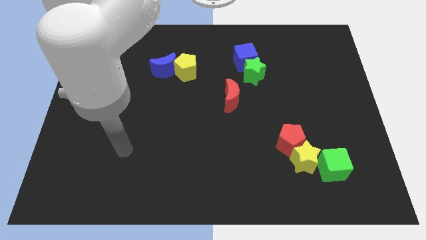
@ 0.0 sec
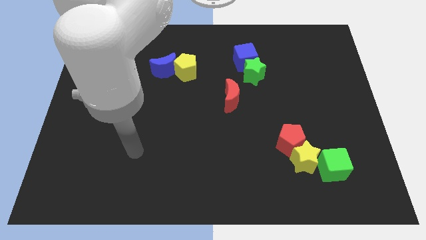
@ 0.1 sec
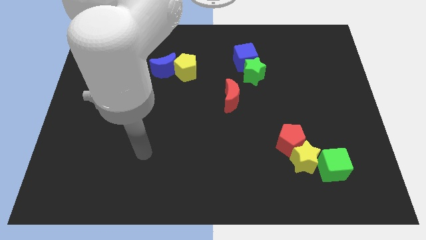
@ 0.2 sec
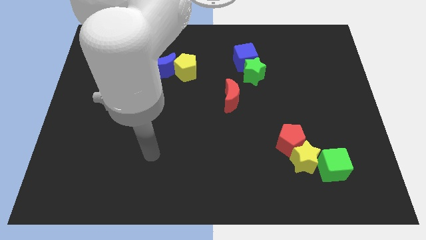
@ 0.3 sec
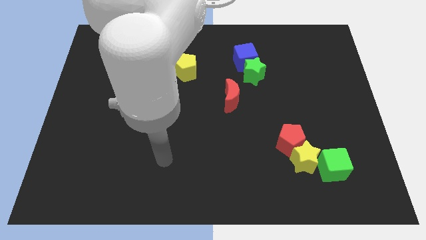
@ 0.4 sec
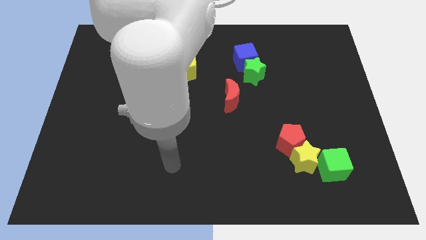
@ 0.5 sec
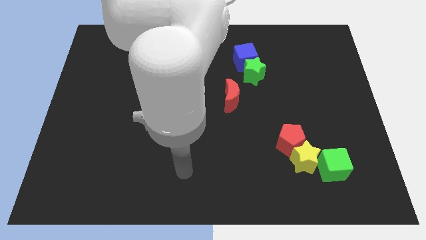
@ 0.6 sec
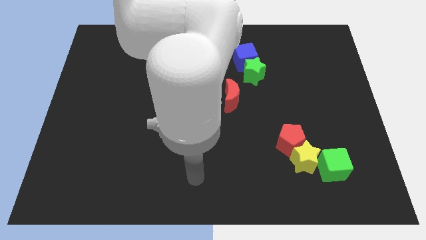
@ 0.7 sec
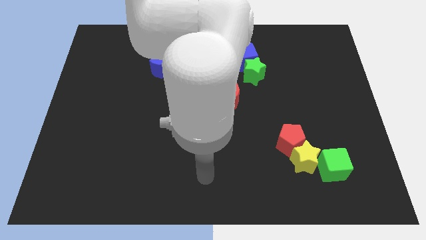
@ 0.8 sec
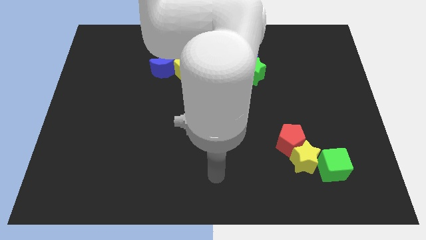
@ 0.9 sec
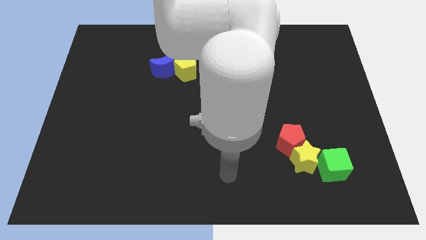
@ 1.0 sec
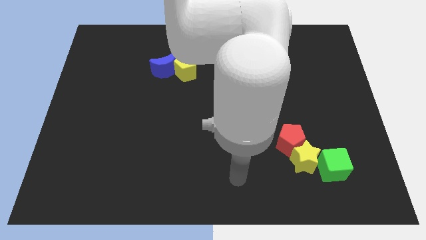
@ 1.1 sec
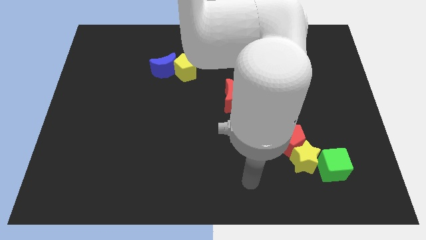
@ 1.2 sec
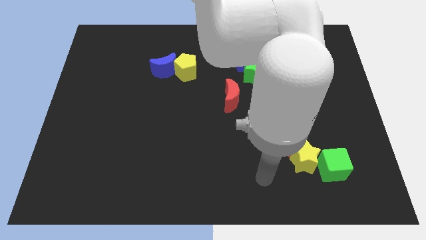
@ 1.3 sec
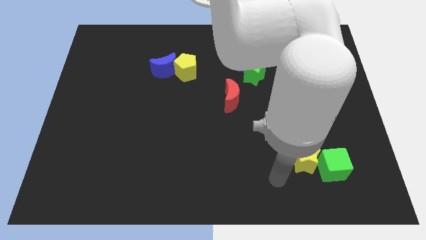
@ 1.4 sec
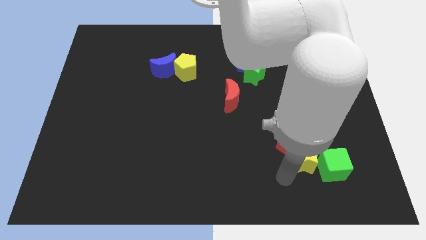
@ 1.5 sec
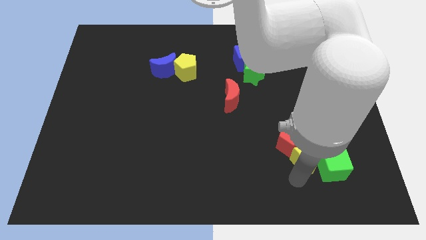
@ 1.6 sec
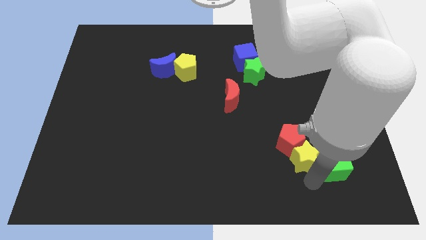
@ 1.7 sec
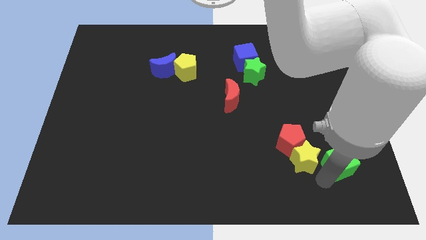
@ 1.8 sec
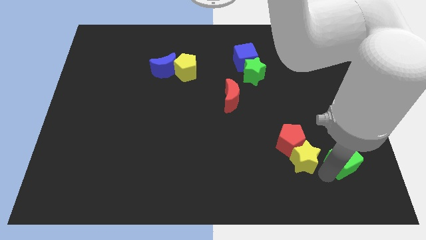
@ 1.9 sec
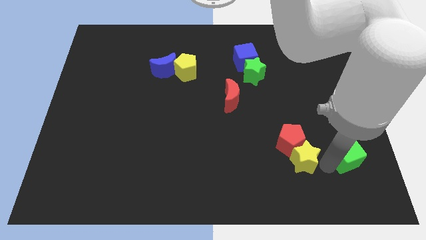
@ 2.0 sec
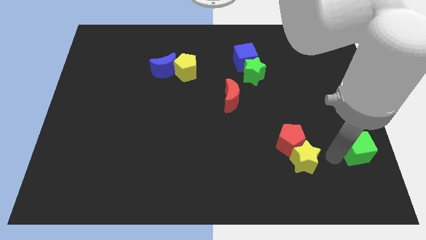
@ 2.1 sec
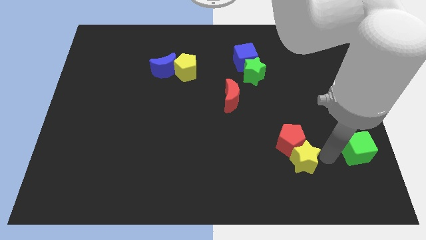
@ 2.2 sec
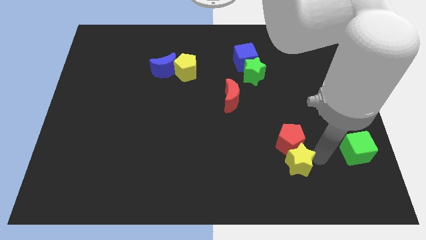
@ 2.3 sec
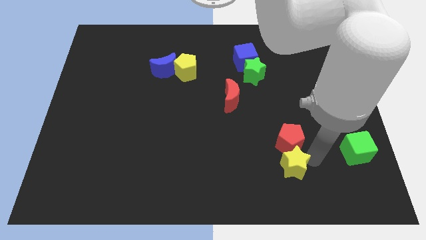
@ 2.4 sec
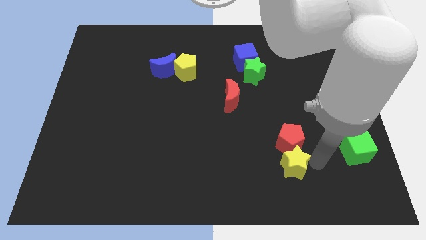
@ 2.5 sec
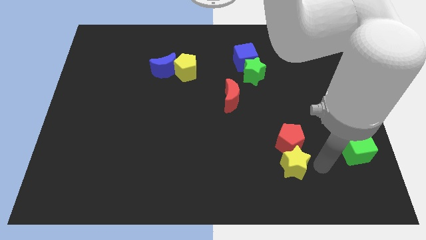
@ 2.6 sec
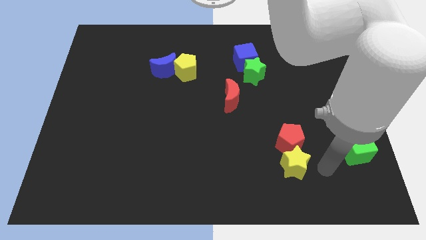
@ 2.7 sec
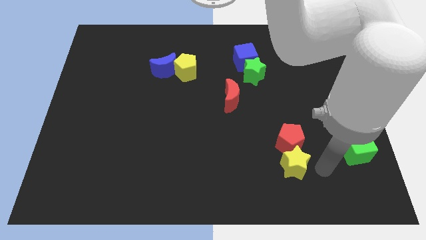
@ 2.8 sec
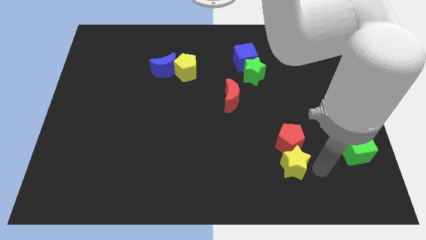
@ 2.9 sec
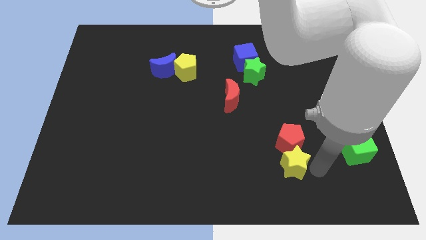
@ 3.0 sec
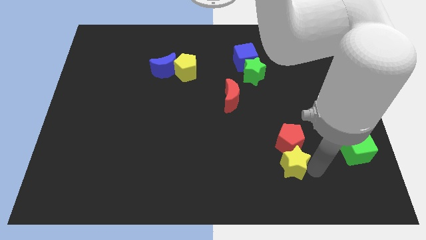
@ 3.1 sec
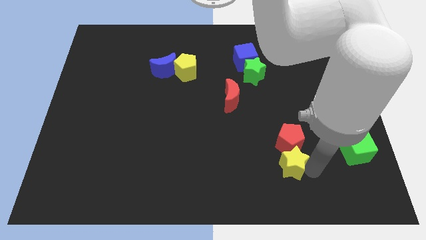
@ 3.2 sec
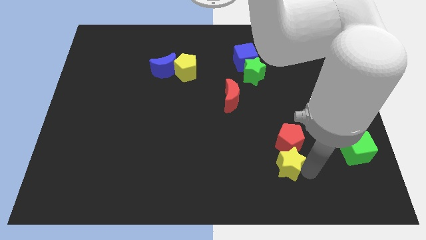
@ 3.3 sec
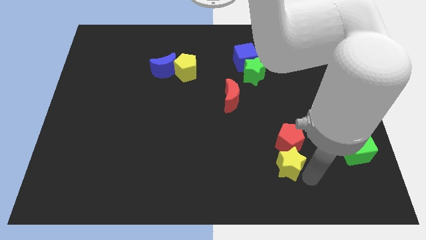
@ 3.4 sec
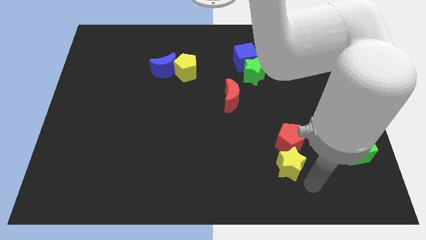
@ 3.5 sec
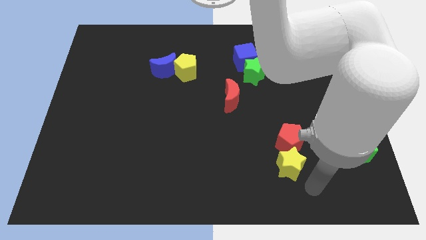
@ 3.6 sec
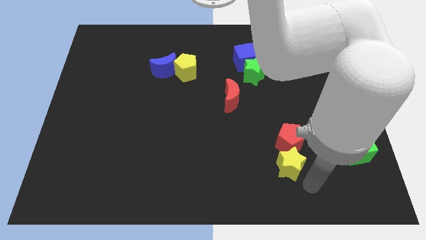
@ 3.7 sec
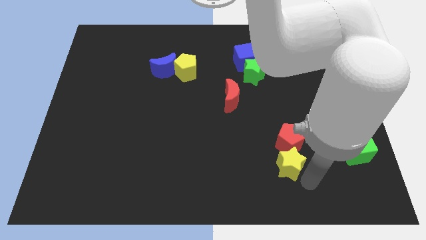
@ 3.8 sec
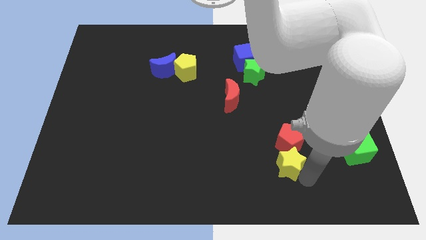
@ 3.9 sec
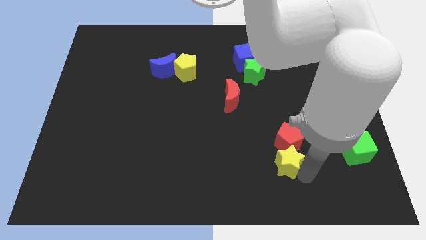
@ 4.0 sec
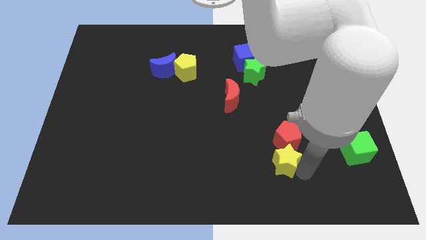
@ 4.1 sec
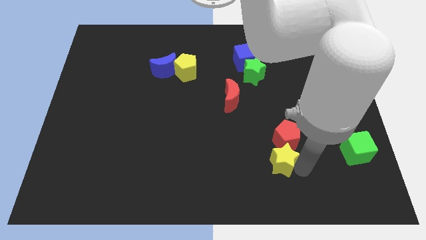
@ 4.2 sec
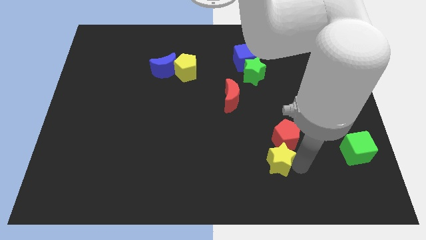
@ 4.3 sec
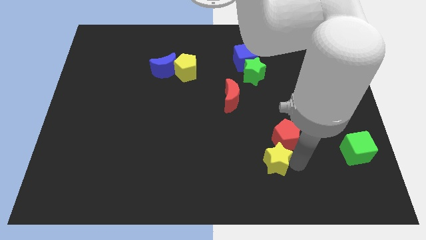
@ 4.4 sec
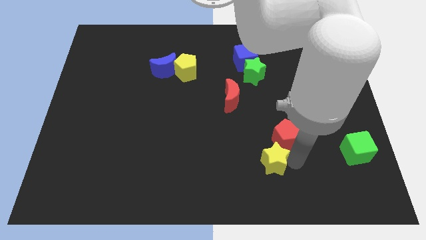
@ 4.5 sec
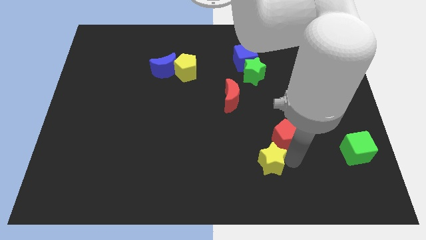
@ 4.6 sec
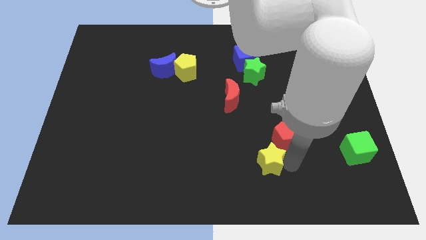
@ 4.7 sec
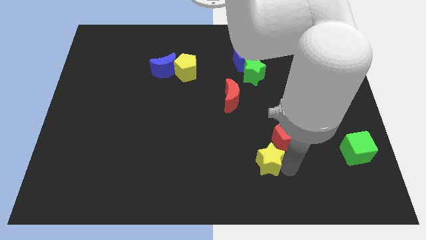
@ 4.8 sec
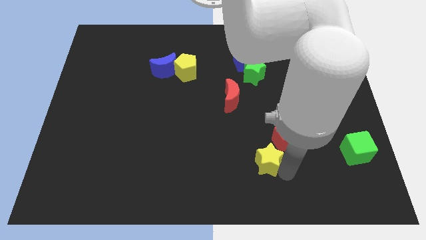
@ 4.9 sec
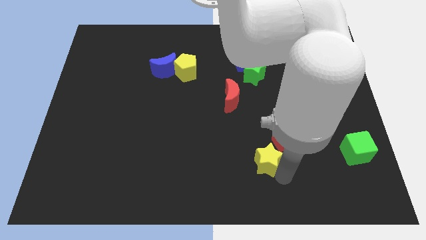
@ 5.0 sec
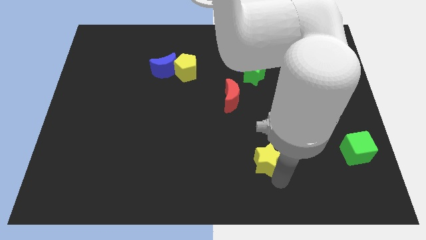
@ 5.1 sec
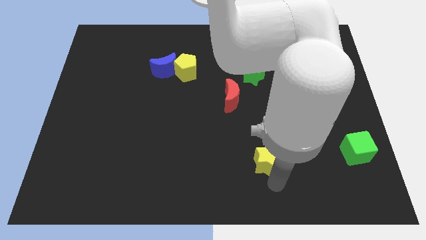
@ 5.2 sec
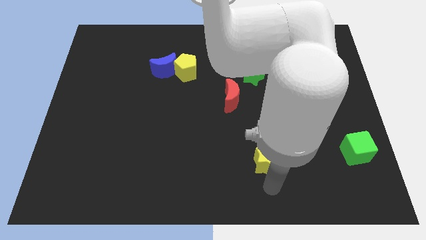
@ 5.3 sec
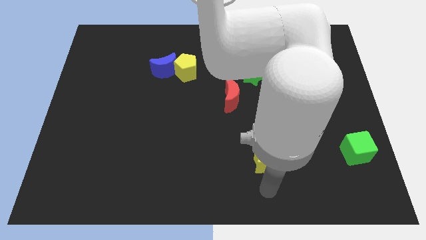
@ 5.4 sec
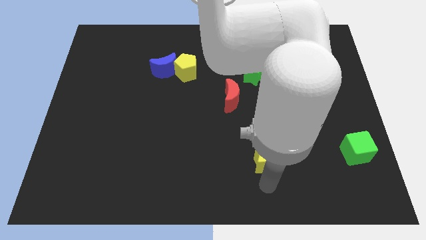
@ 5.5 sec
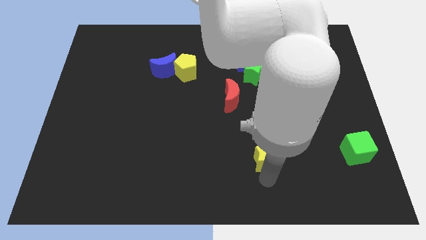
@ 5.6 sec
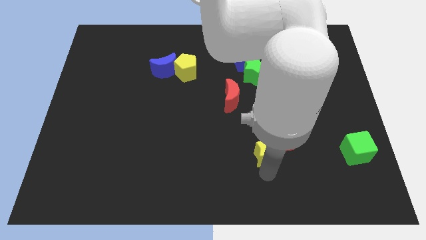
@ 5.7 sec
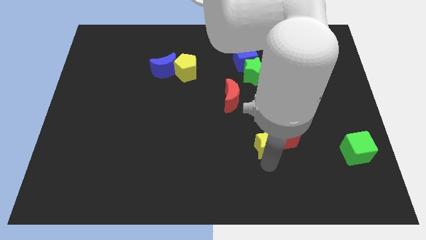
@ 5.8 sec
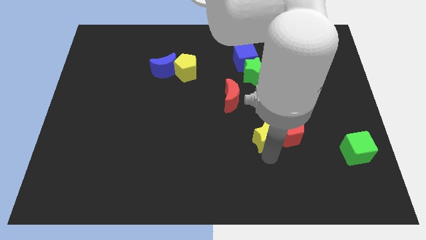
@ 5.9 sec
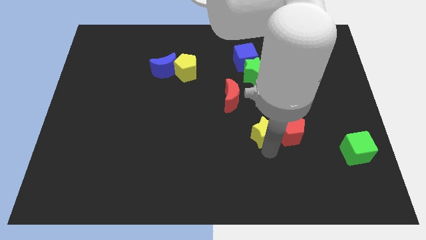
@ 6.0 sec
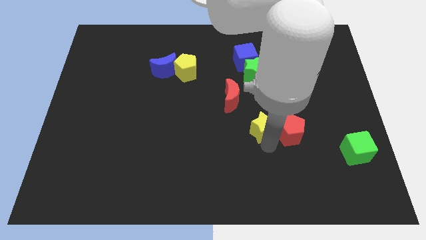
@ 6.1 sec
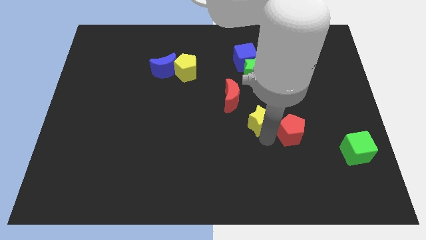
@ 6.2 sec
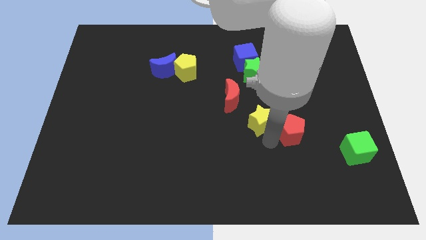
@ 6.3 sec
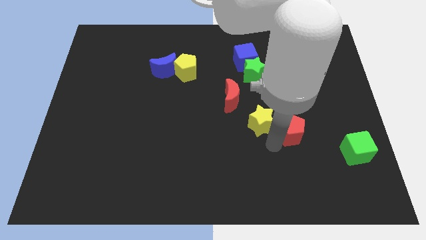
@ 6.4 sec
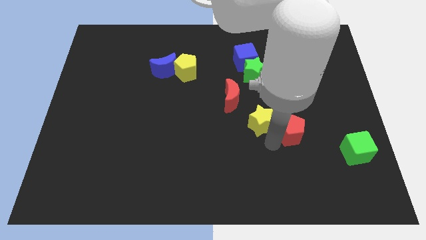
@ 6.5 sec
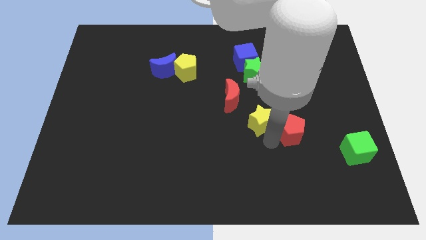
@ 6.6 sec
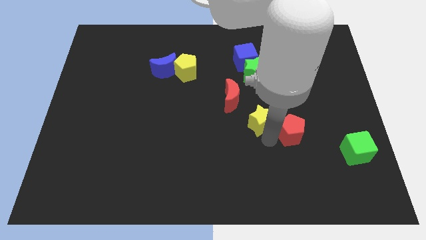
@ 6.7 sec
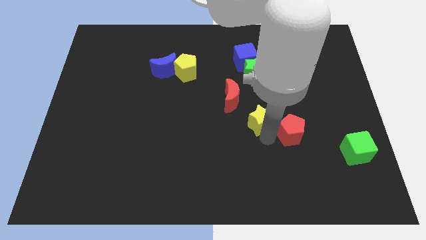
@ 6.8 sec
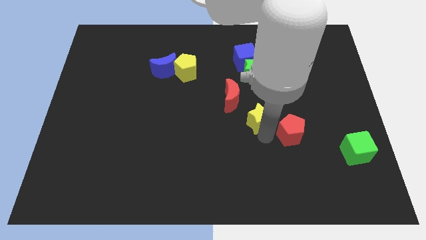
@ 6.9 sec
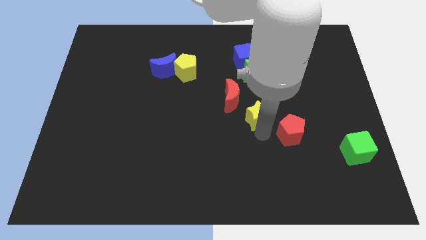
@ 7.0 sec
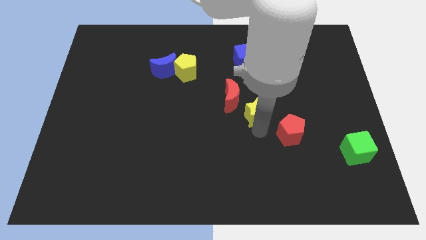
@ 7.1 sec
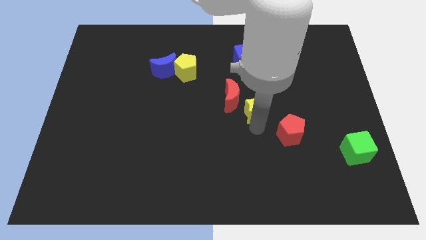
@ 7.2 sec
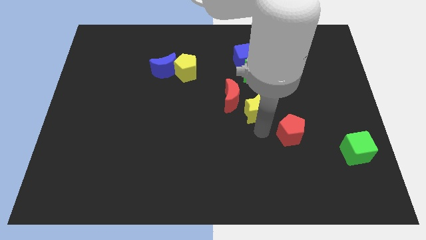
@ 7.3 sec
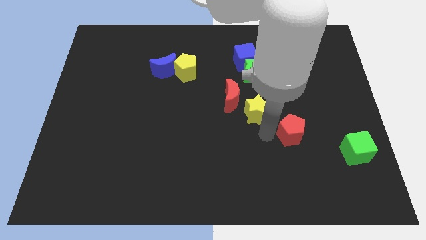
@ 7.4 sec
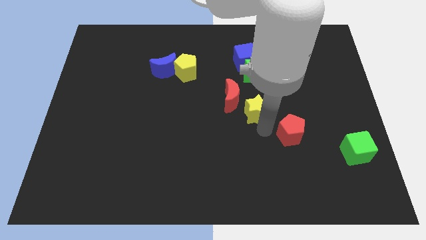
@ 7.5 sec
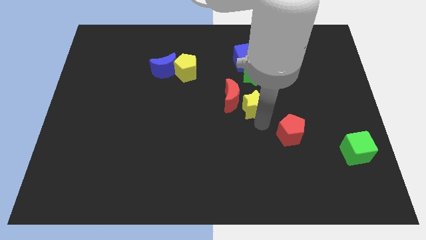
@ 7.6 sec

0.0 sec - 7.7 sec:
slide the yellow star below the blue cube
